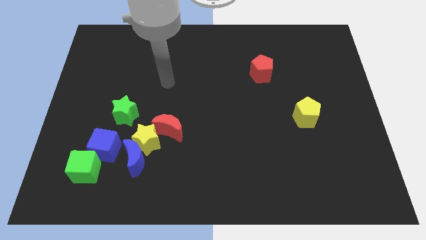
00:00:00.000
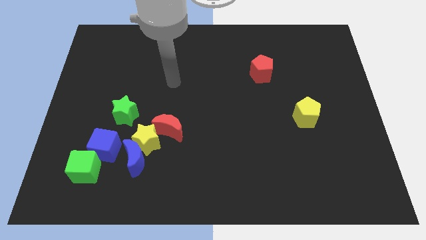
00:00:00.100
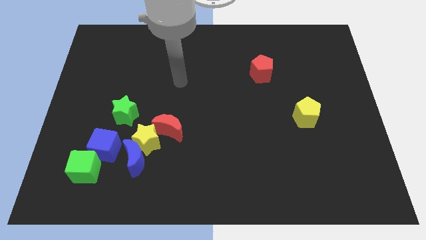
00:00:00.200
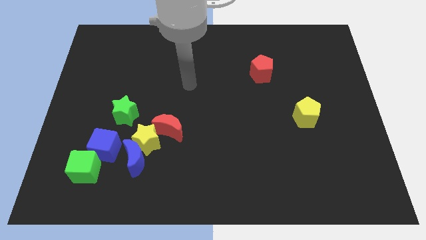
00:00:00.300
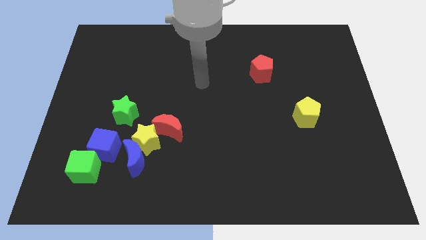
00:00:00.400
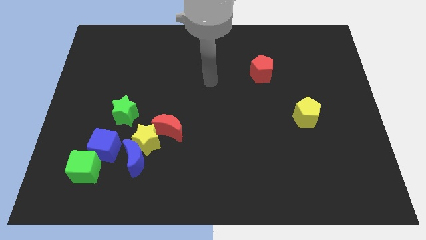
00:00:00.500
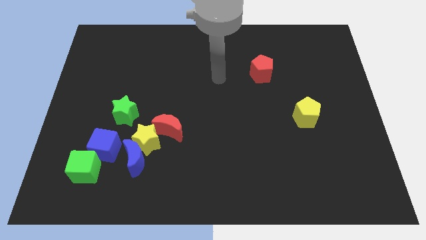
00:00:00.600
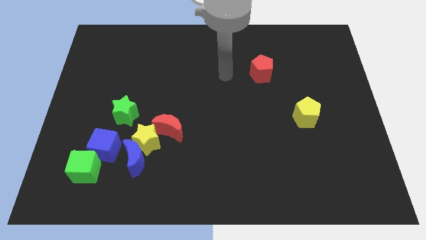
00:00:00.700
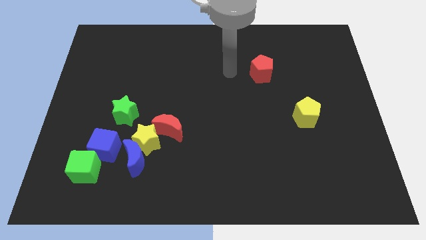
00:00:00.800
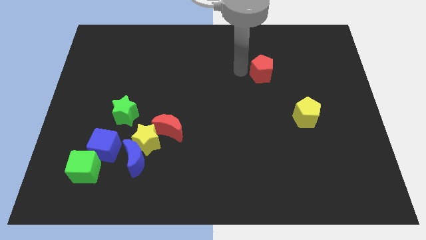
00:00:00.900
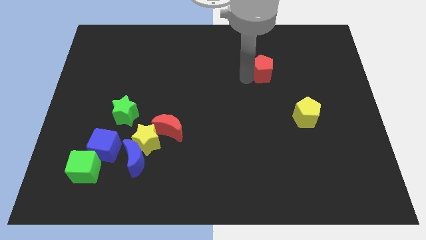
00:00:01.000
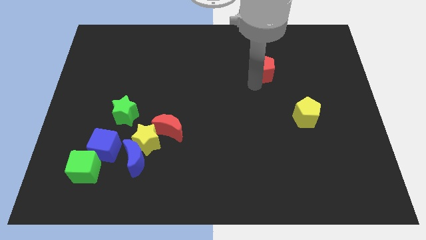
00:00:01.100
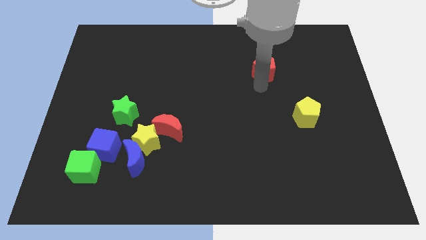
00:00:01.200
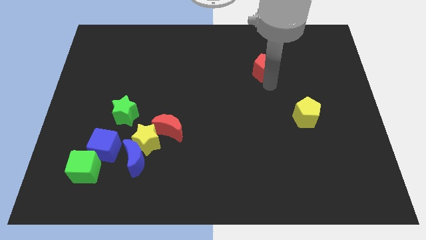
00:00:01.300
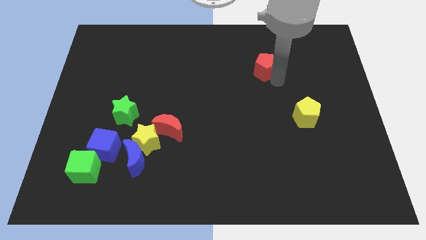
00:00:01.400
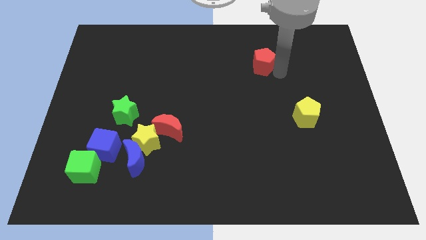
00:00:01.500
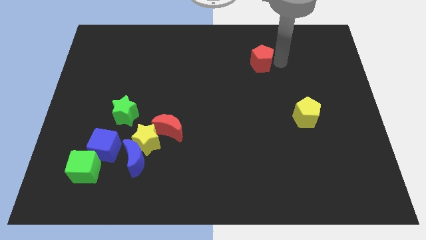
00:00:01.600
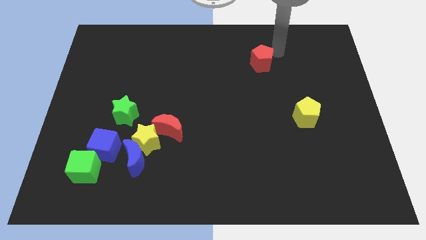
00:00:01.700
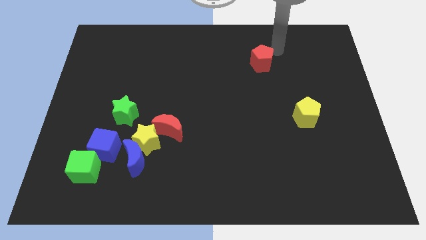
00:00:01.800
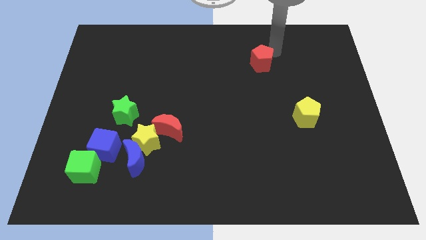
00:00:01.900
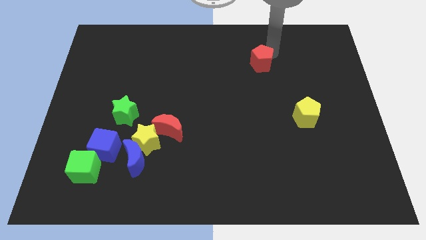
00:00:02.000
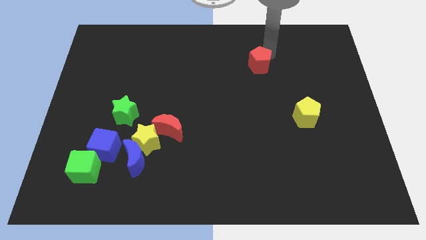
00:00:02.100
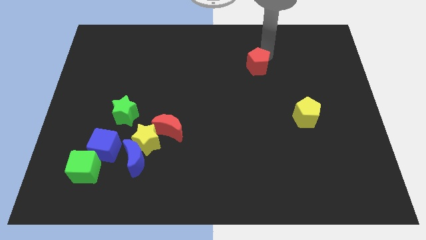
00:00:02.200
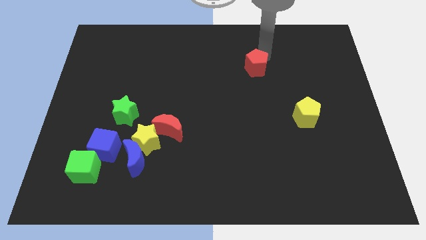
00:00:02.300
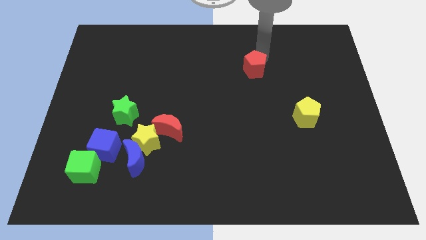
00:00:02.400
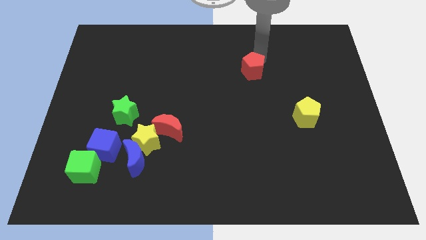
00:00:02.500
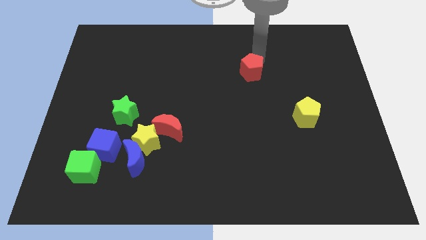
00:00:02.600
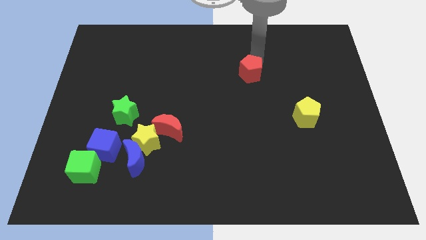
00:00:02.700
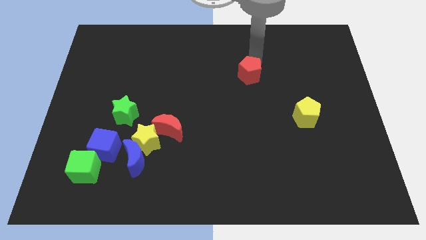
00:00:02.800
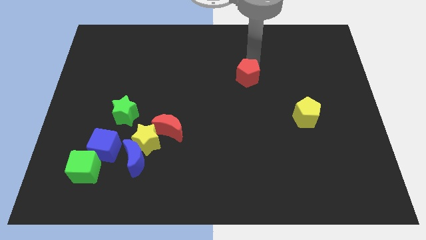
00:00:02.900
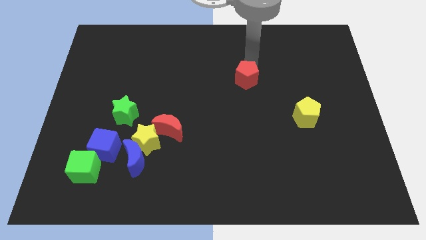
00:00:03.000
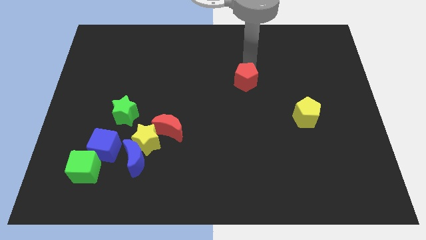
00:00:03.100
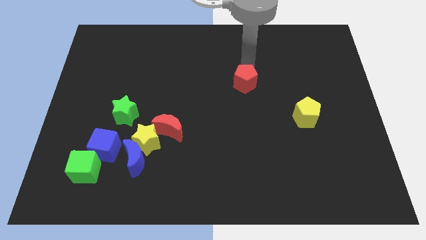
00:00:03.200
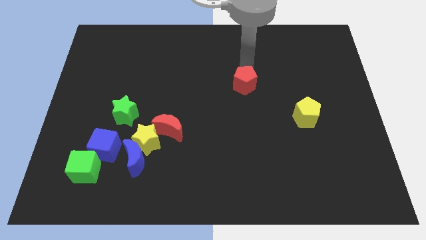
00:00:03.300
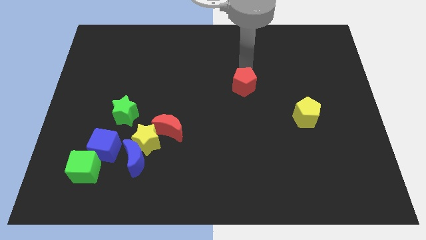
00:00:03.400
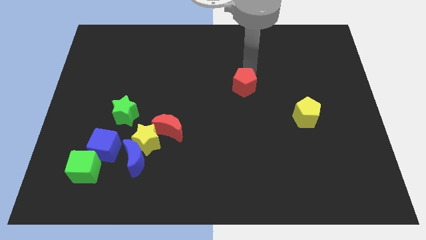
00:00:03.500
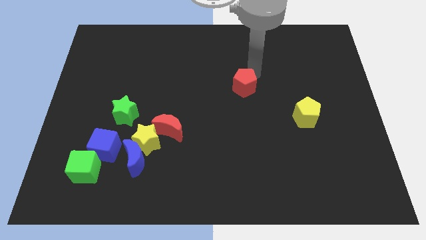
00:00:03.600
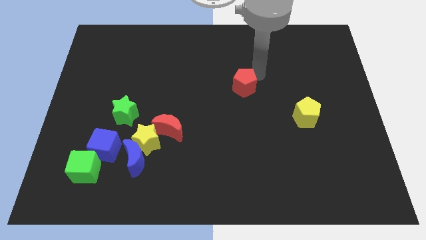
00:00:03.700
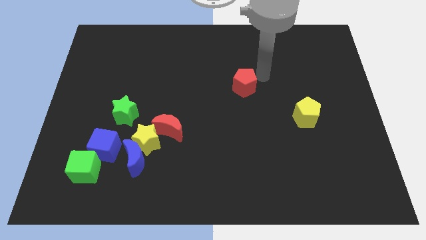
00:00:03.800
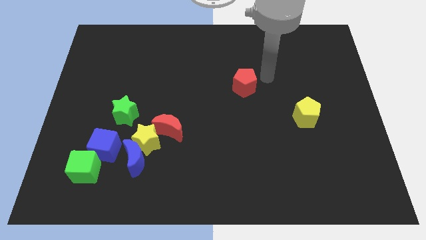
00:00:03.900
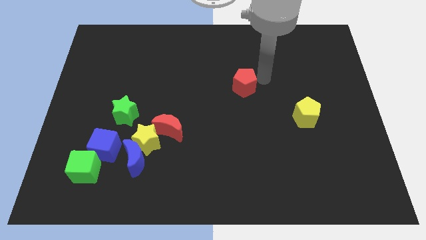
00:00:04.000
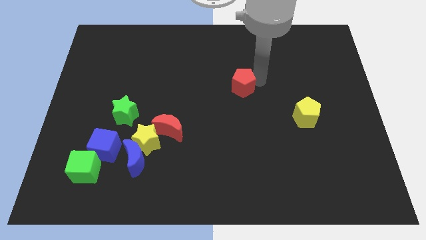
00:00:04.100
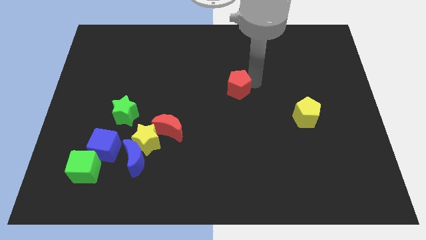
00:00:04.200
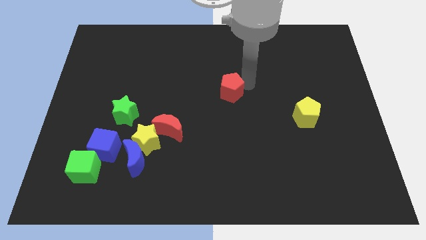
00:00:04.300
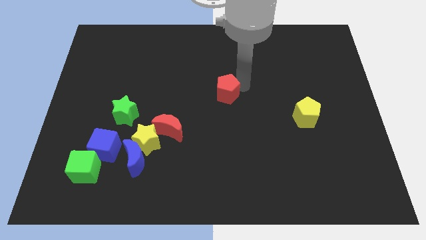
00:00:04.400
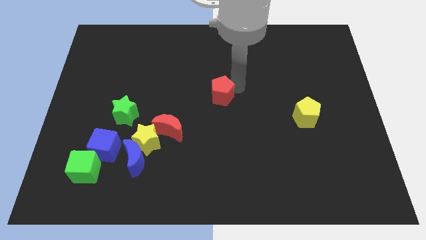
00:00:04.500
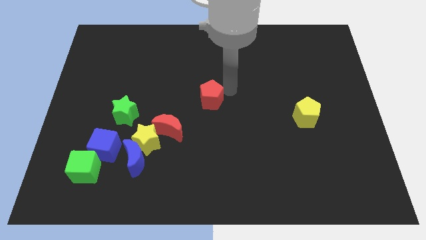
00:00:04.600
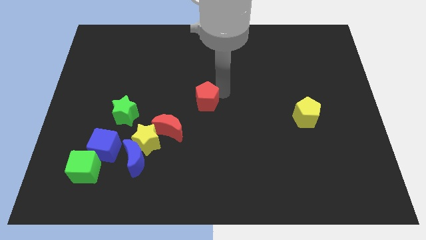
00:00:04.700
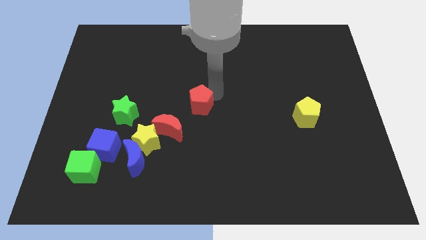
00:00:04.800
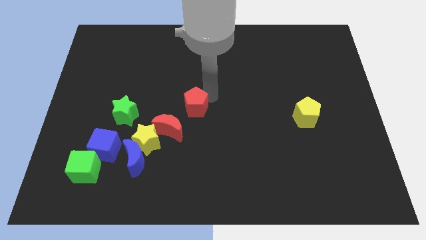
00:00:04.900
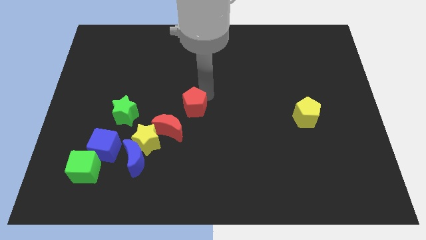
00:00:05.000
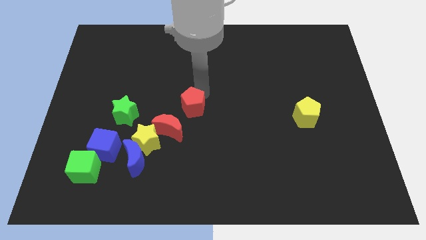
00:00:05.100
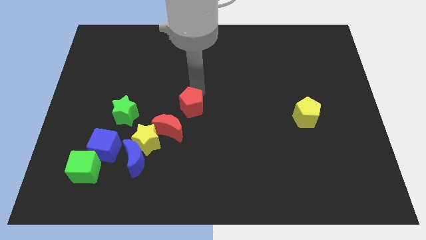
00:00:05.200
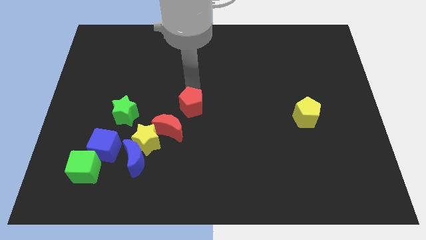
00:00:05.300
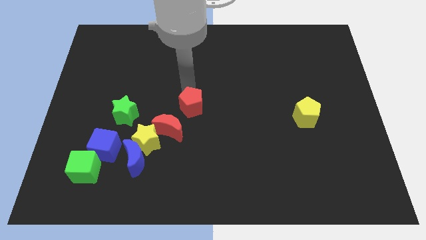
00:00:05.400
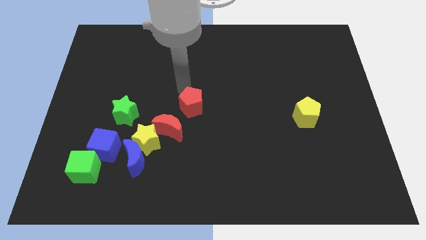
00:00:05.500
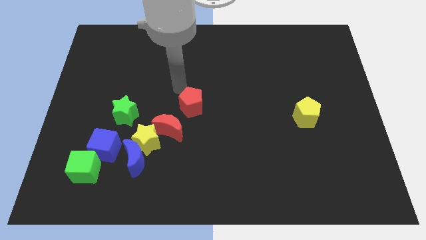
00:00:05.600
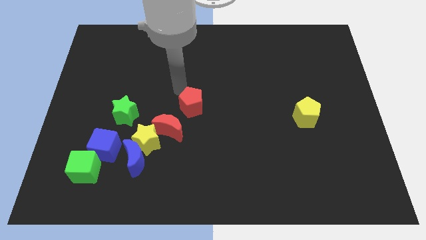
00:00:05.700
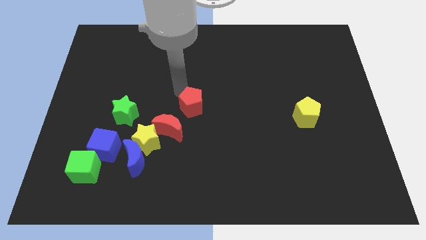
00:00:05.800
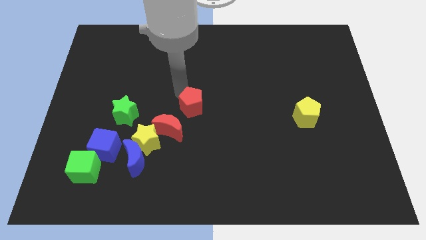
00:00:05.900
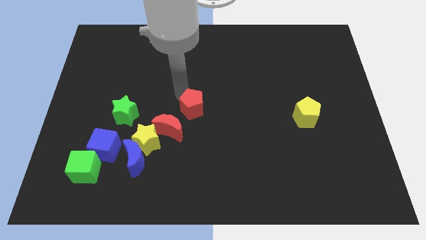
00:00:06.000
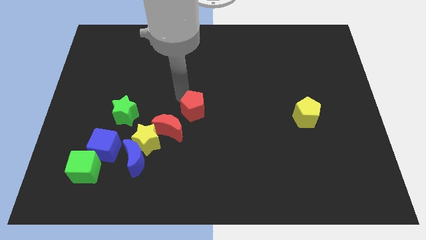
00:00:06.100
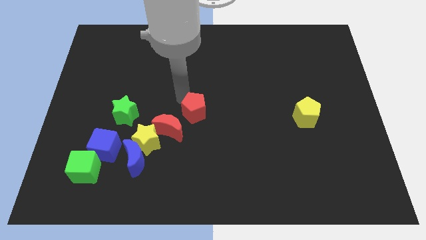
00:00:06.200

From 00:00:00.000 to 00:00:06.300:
slide the red pentagon down and then to the left

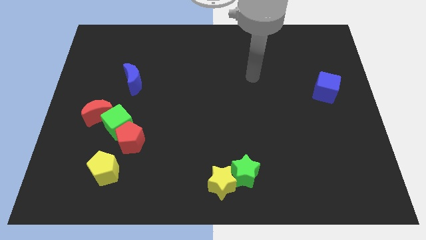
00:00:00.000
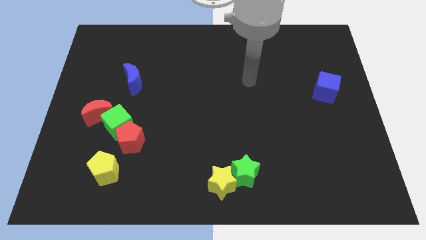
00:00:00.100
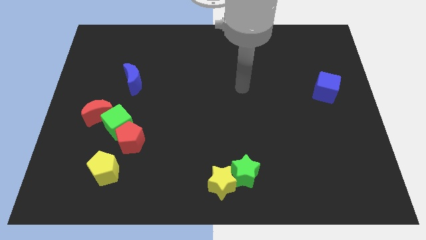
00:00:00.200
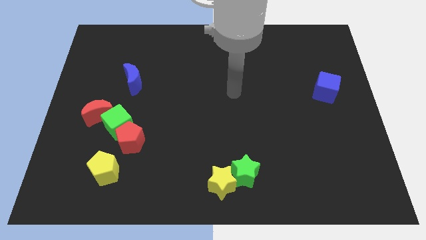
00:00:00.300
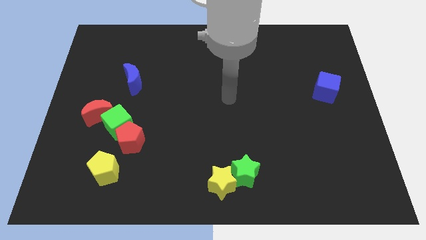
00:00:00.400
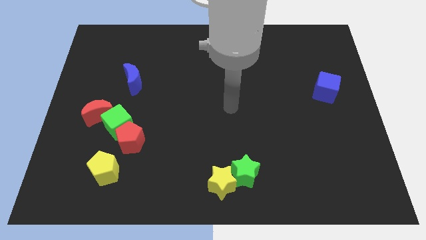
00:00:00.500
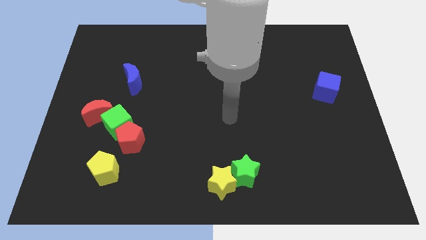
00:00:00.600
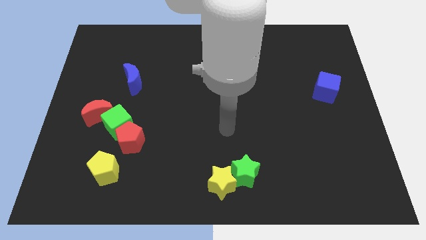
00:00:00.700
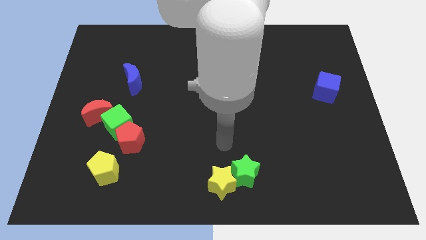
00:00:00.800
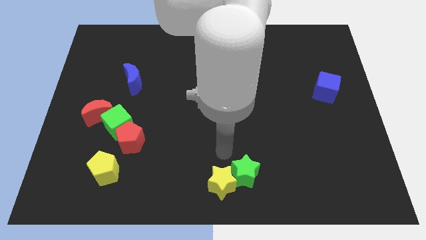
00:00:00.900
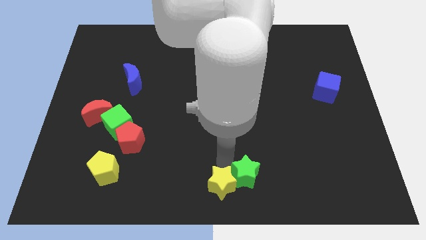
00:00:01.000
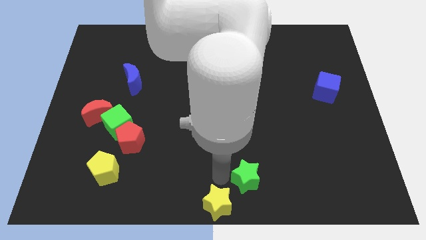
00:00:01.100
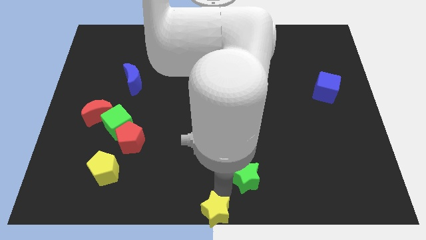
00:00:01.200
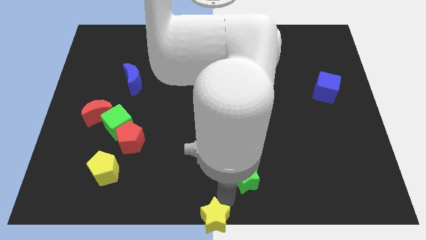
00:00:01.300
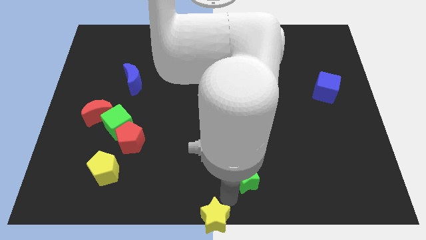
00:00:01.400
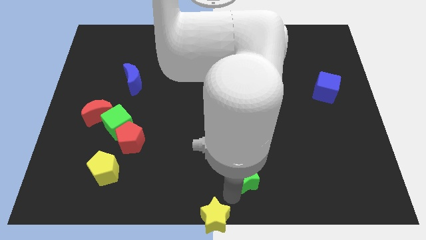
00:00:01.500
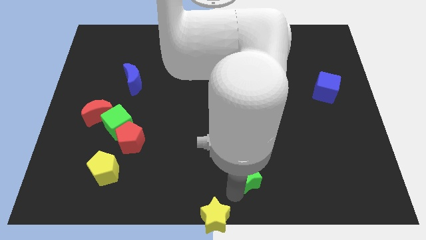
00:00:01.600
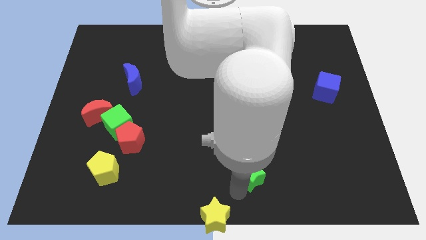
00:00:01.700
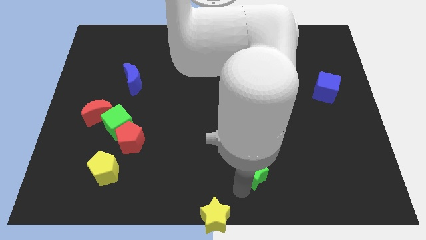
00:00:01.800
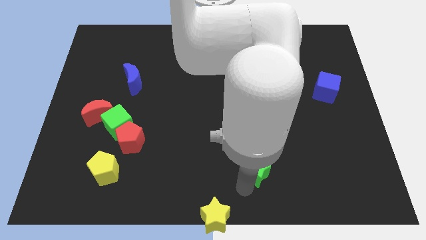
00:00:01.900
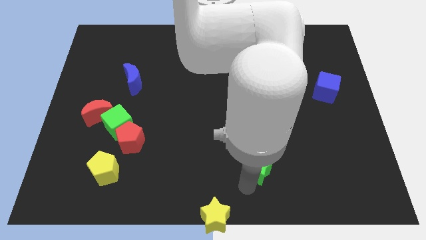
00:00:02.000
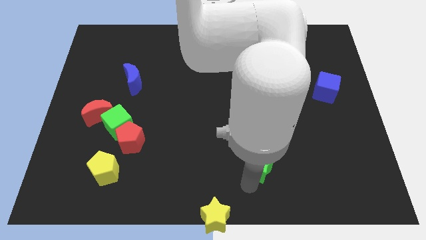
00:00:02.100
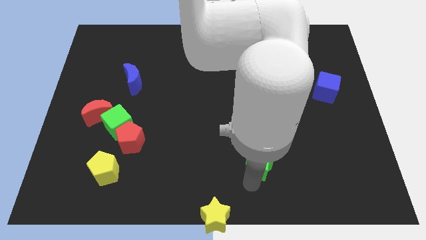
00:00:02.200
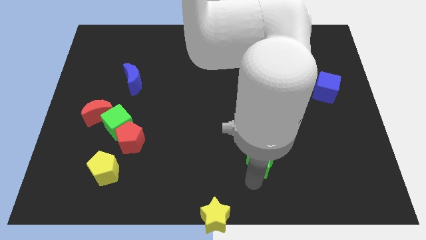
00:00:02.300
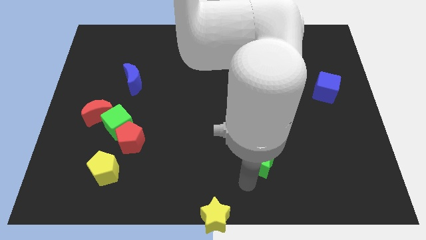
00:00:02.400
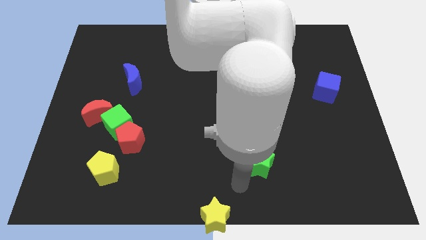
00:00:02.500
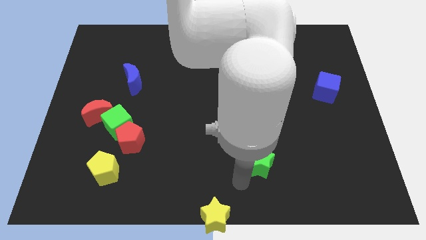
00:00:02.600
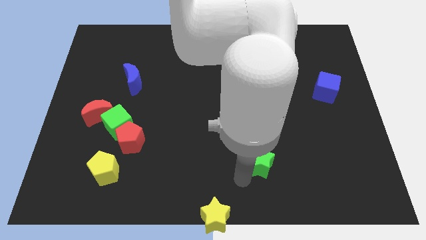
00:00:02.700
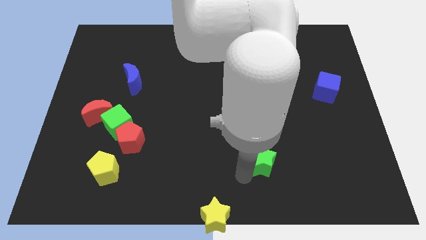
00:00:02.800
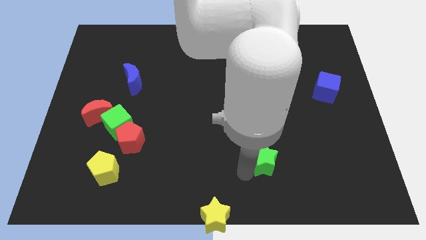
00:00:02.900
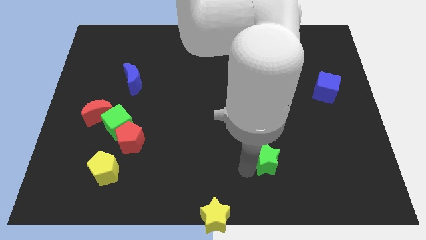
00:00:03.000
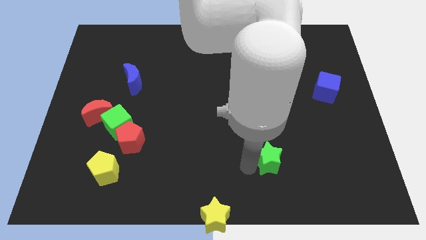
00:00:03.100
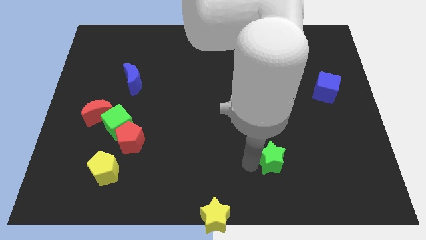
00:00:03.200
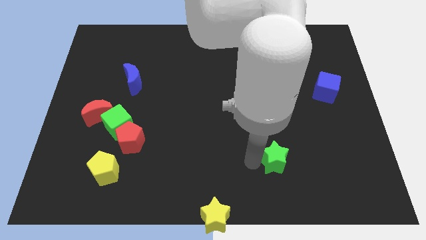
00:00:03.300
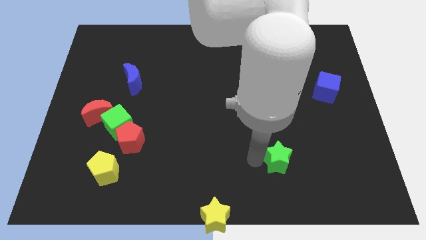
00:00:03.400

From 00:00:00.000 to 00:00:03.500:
slightly move the green star upwards and right
